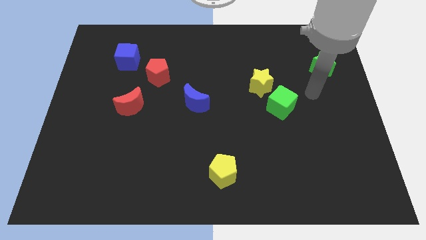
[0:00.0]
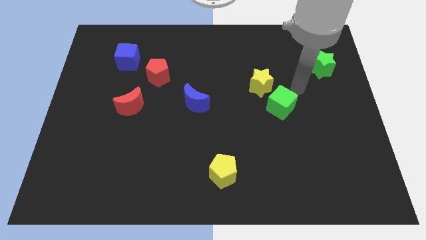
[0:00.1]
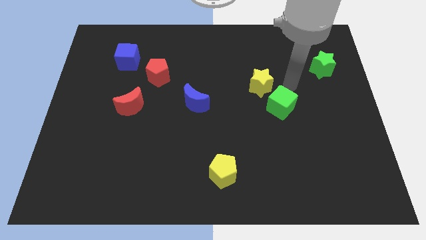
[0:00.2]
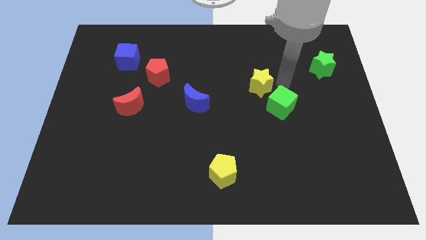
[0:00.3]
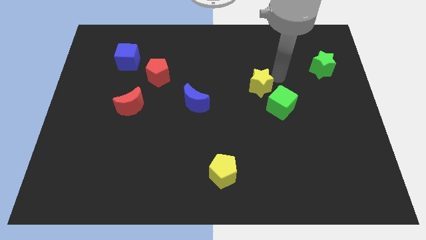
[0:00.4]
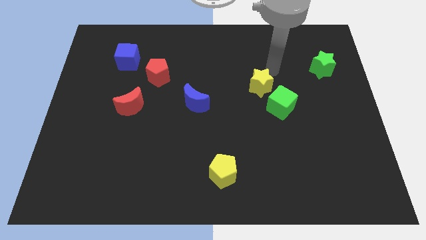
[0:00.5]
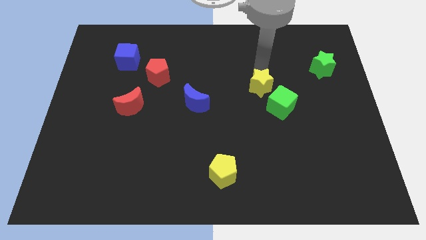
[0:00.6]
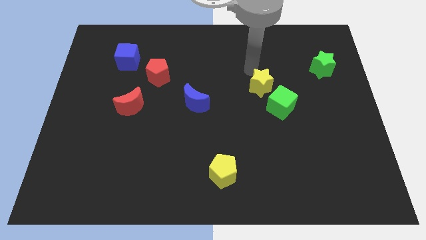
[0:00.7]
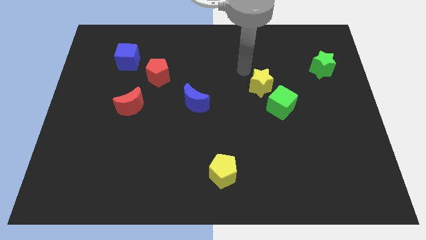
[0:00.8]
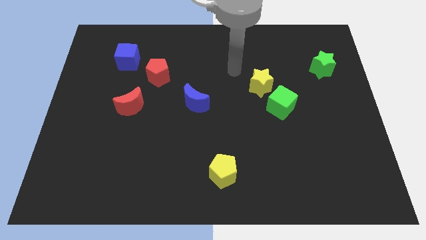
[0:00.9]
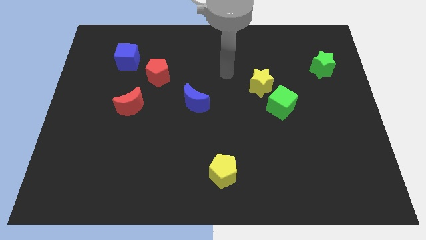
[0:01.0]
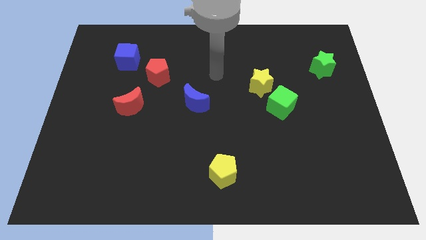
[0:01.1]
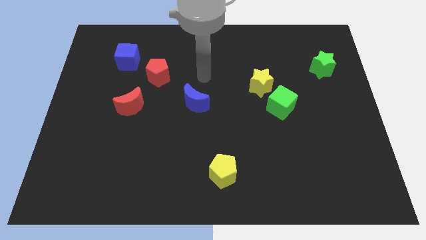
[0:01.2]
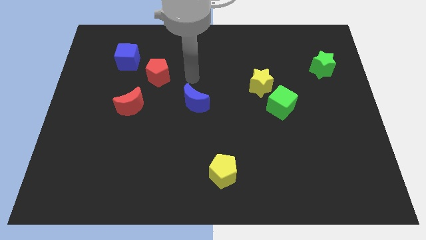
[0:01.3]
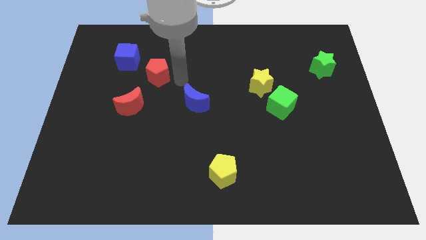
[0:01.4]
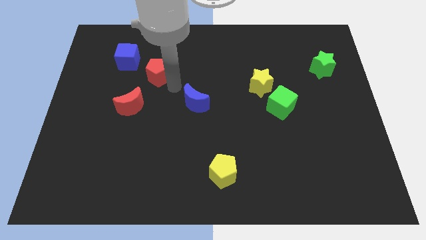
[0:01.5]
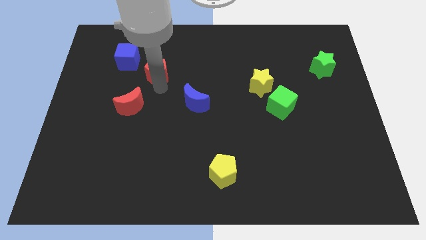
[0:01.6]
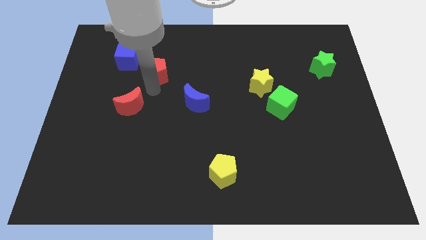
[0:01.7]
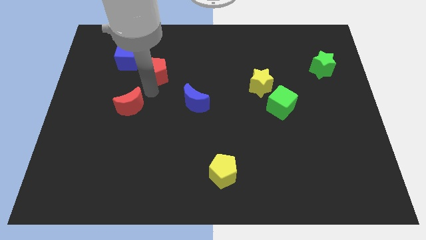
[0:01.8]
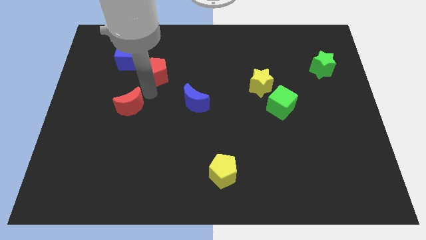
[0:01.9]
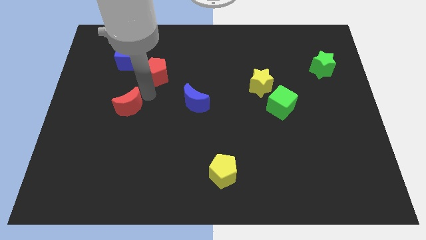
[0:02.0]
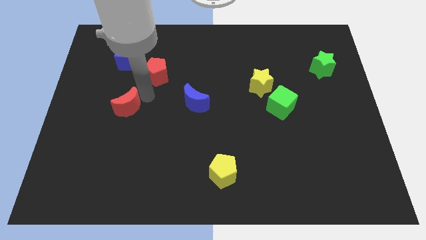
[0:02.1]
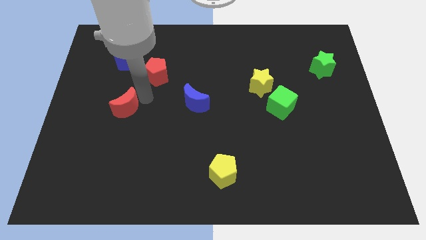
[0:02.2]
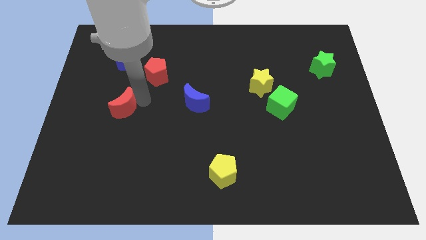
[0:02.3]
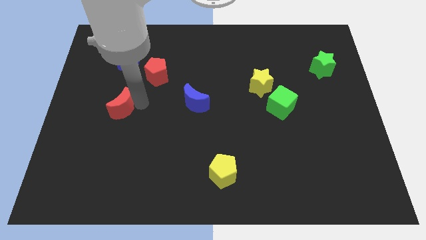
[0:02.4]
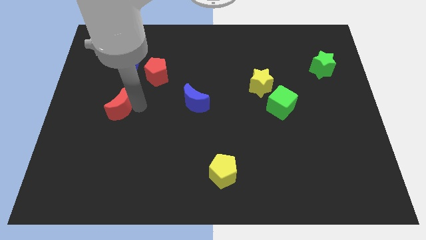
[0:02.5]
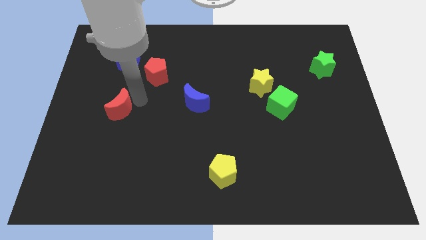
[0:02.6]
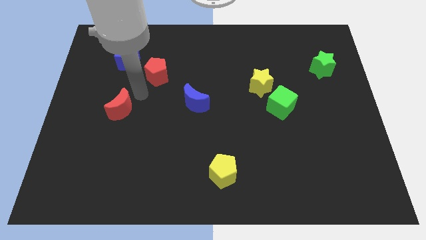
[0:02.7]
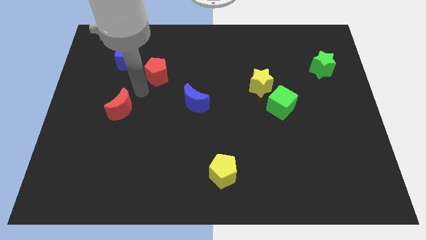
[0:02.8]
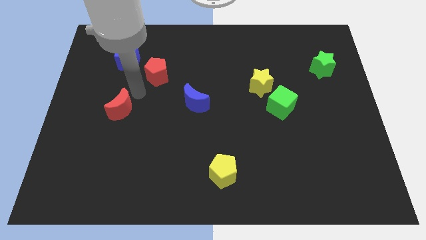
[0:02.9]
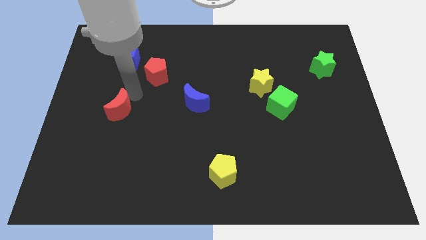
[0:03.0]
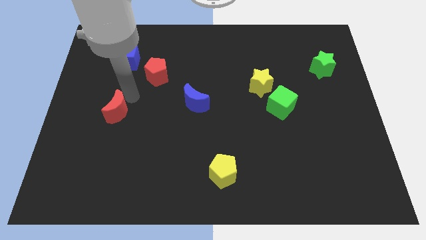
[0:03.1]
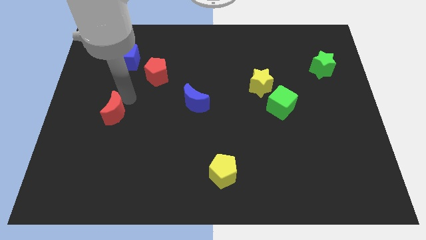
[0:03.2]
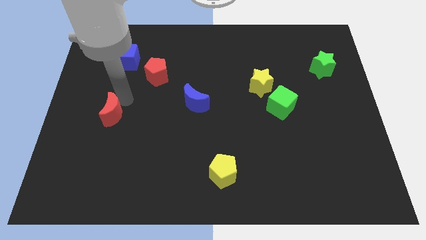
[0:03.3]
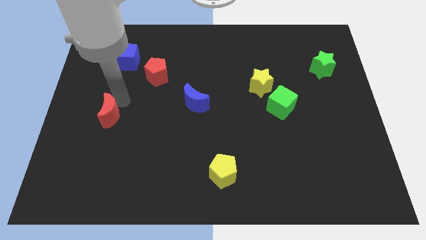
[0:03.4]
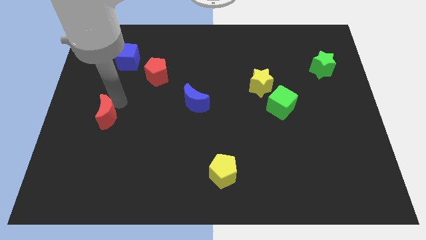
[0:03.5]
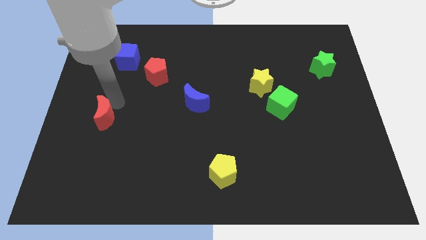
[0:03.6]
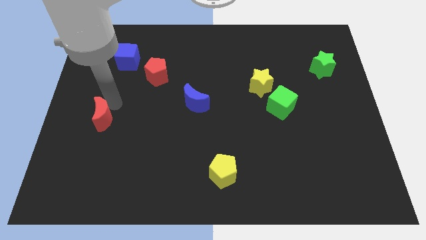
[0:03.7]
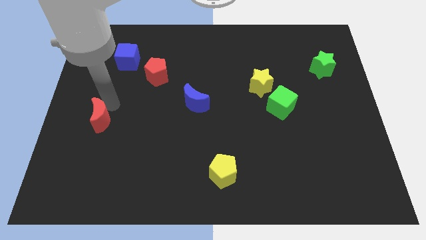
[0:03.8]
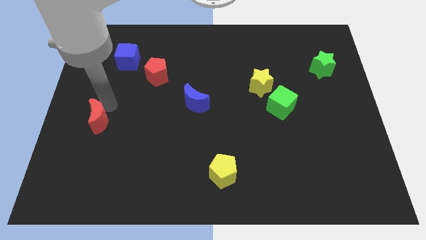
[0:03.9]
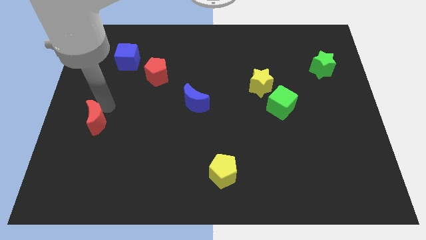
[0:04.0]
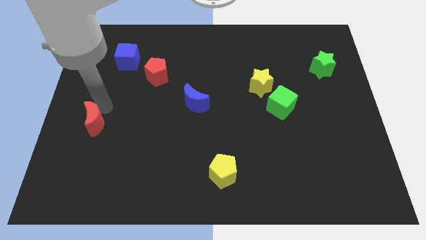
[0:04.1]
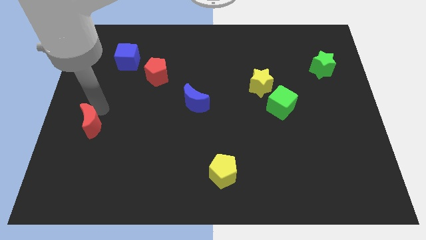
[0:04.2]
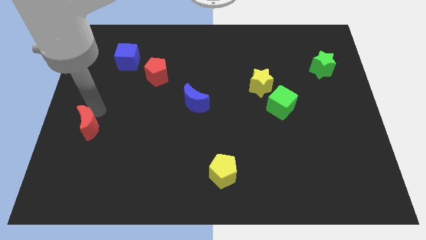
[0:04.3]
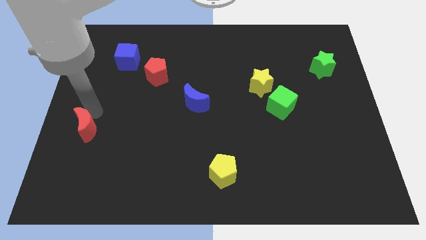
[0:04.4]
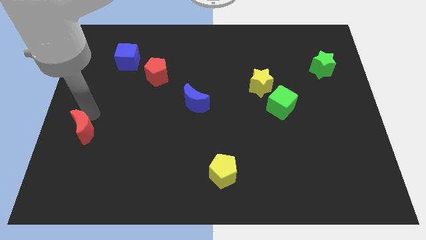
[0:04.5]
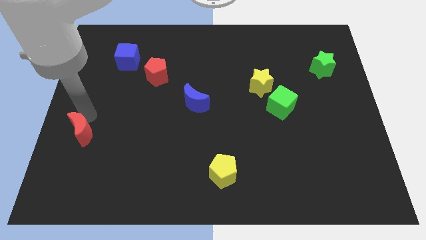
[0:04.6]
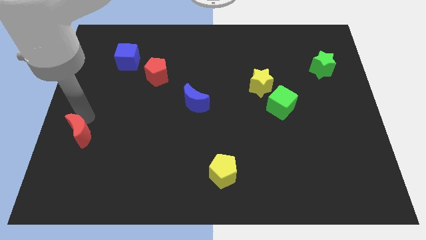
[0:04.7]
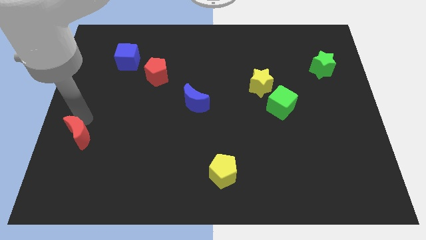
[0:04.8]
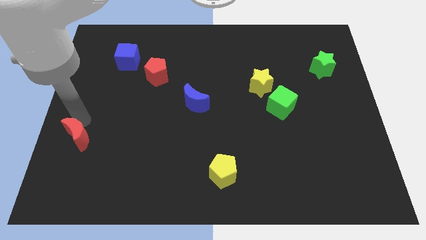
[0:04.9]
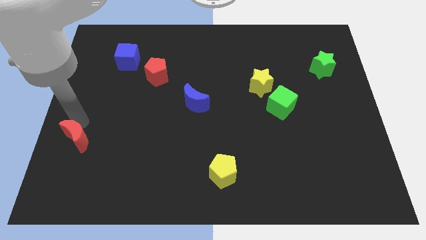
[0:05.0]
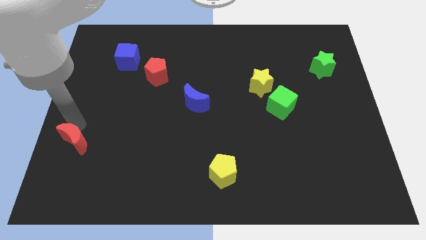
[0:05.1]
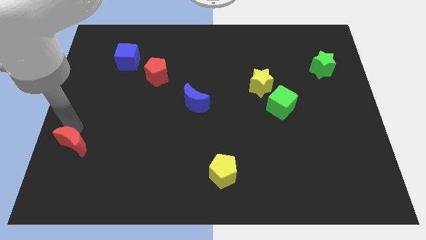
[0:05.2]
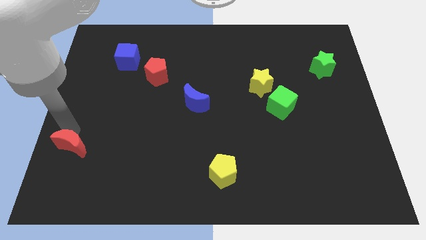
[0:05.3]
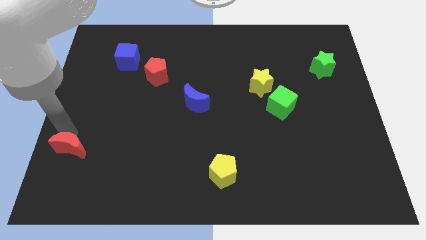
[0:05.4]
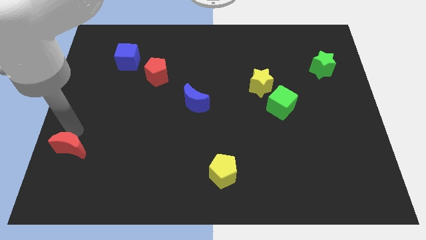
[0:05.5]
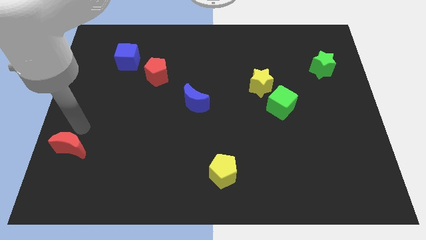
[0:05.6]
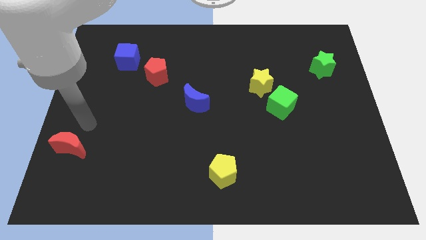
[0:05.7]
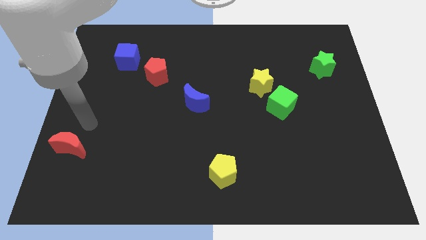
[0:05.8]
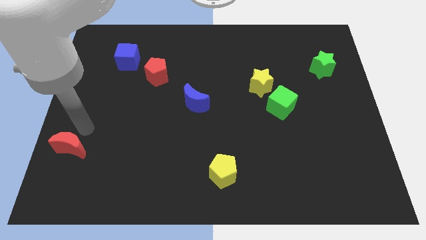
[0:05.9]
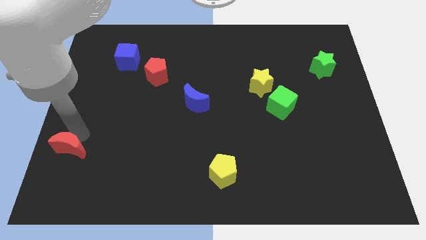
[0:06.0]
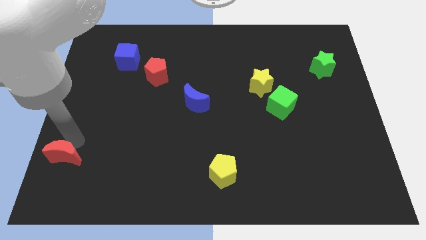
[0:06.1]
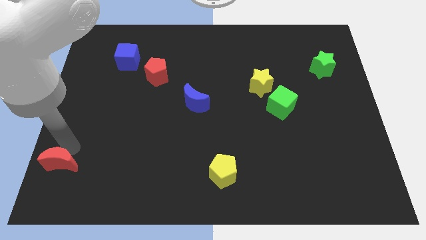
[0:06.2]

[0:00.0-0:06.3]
slide the red moon to the bottom left
